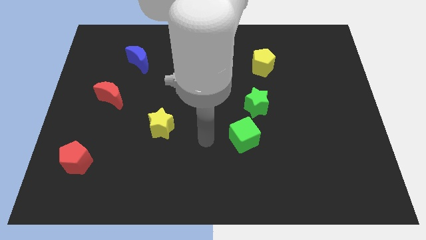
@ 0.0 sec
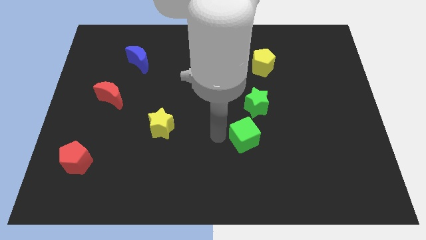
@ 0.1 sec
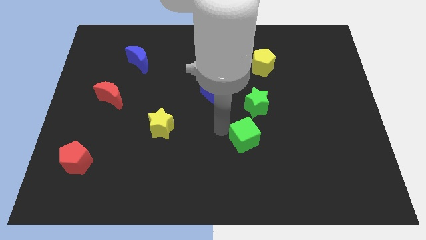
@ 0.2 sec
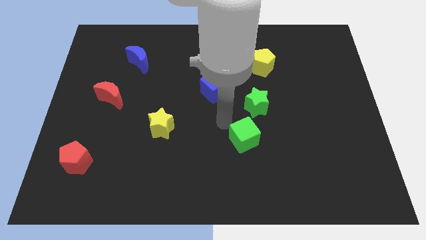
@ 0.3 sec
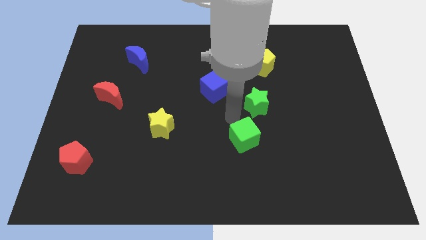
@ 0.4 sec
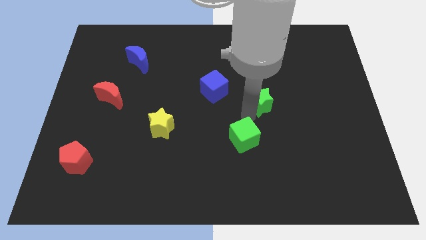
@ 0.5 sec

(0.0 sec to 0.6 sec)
pull the green cube apart from the green star

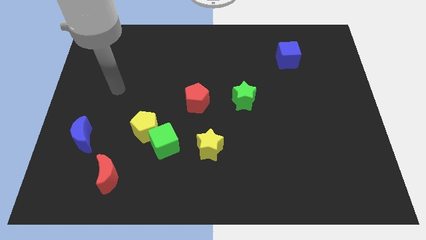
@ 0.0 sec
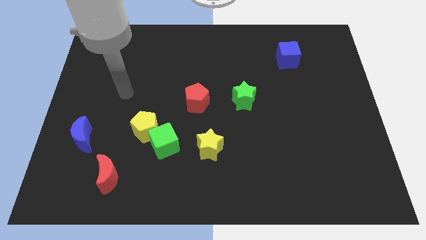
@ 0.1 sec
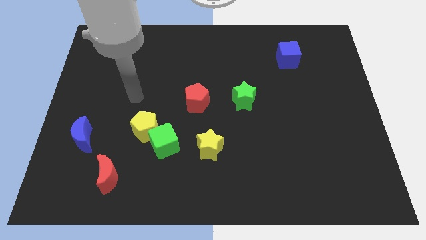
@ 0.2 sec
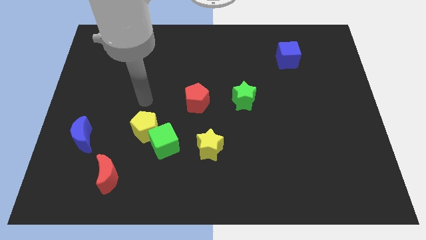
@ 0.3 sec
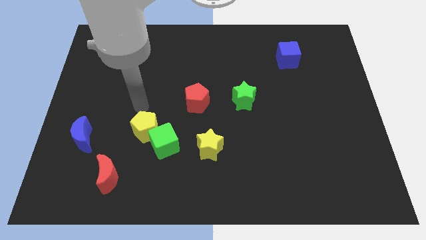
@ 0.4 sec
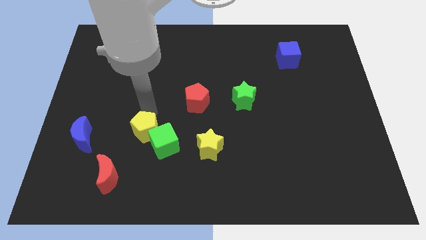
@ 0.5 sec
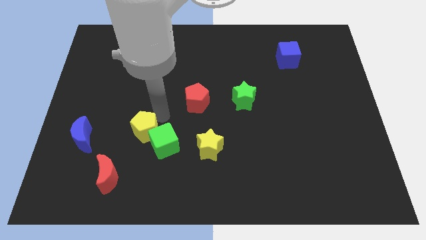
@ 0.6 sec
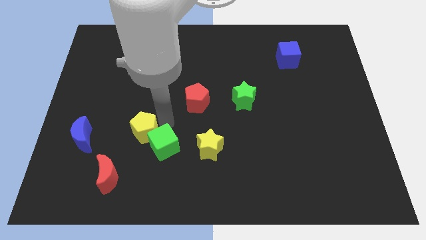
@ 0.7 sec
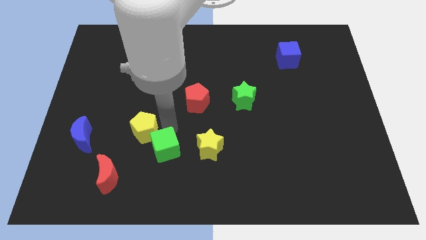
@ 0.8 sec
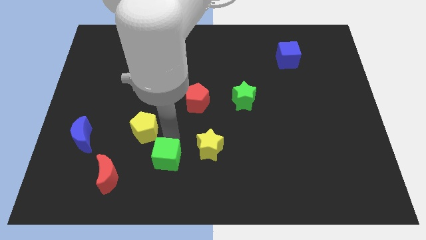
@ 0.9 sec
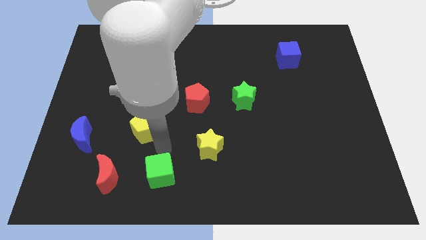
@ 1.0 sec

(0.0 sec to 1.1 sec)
separate the yellow pentagon from the green cube

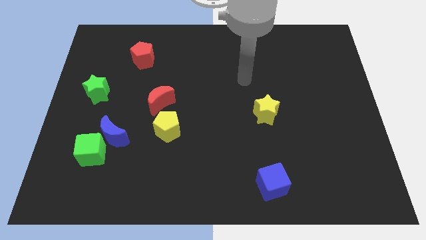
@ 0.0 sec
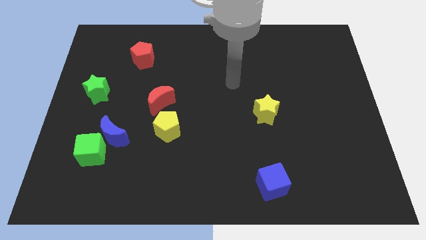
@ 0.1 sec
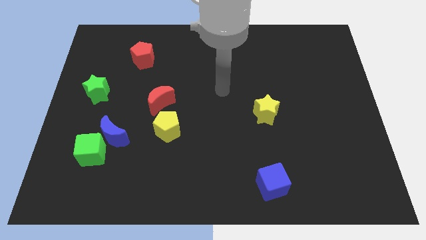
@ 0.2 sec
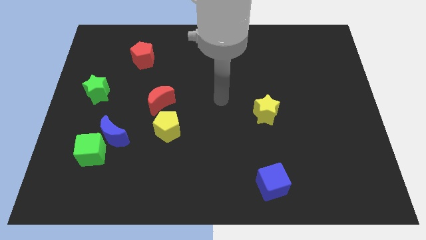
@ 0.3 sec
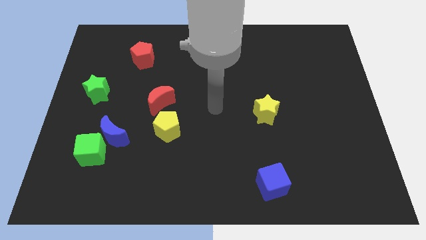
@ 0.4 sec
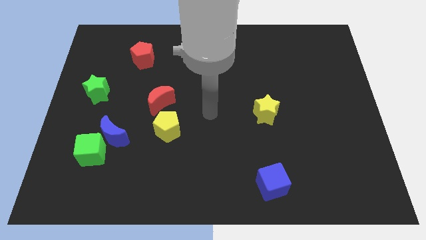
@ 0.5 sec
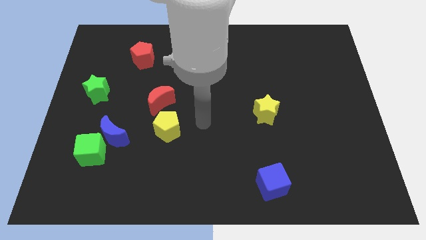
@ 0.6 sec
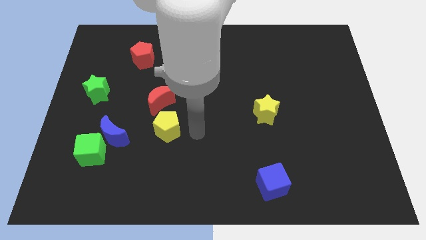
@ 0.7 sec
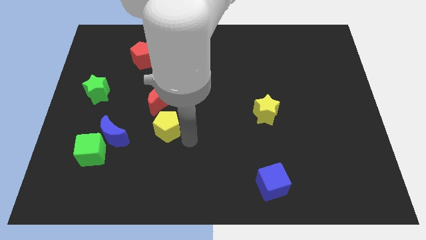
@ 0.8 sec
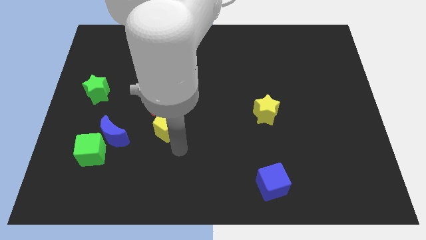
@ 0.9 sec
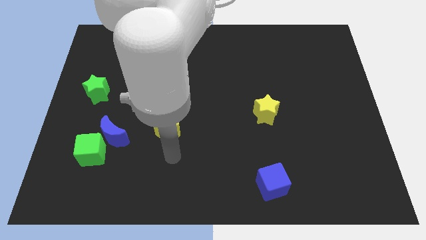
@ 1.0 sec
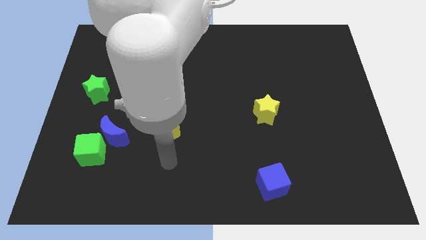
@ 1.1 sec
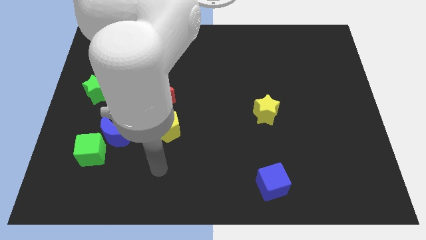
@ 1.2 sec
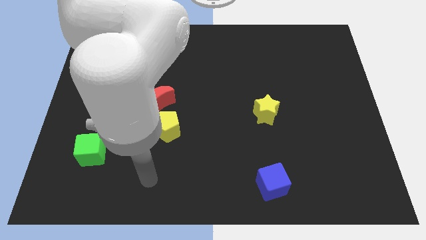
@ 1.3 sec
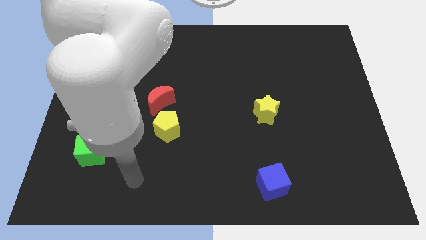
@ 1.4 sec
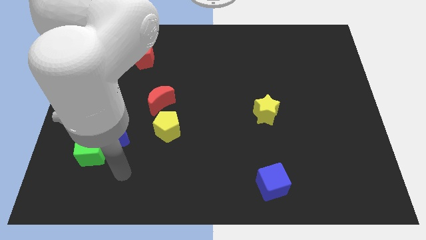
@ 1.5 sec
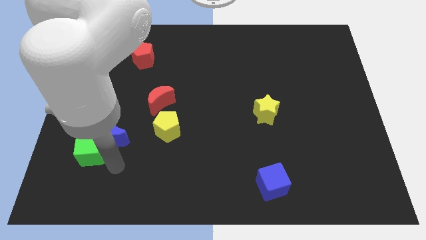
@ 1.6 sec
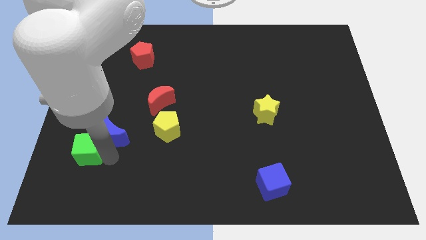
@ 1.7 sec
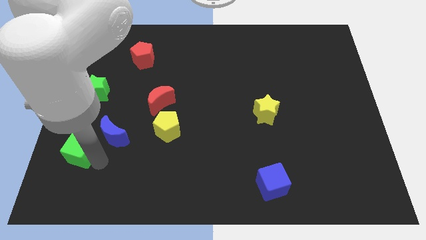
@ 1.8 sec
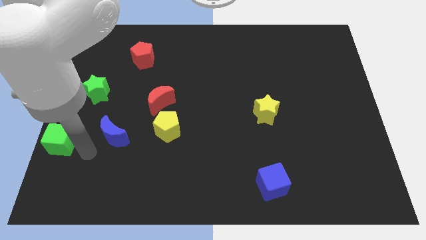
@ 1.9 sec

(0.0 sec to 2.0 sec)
separate the blue moon from the green cube

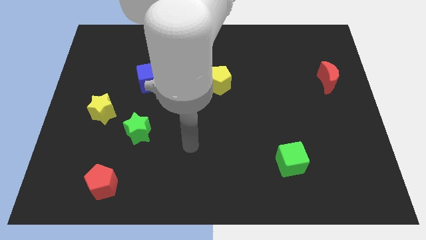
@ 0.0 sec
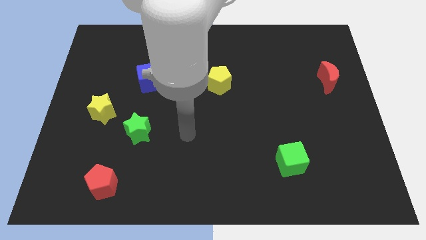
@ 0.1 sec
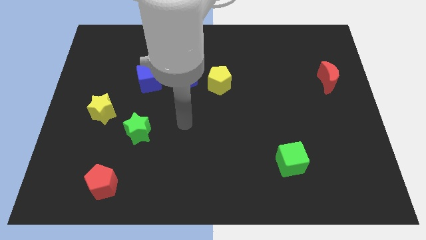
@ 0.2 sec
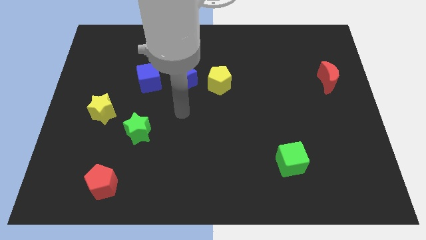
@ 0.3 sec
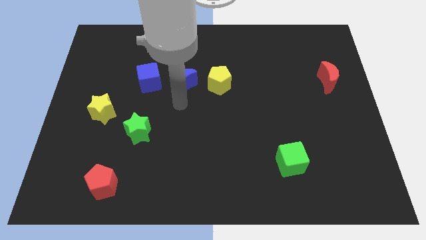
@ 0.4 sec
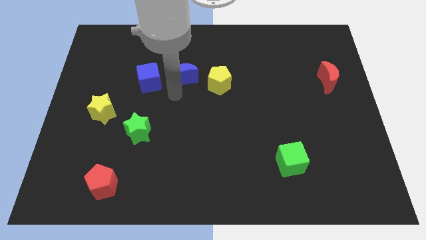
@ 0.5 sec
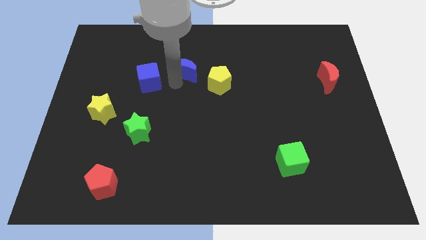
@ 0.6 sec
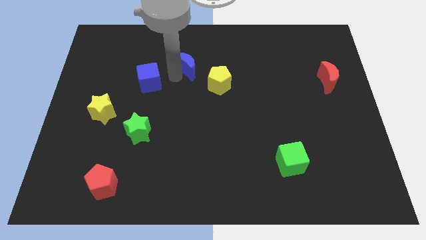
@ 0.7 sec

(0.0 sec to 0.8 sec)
pull the blue cube apart from the blue moon

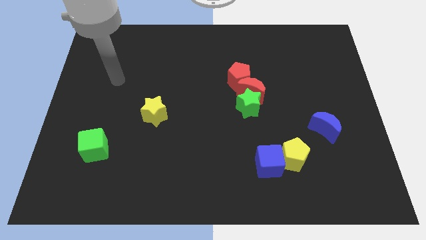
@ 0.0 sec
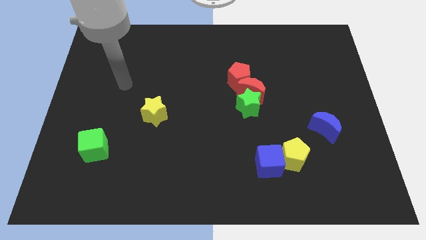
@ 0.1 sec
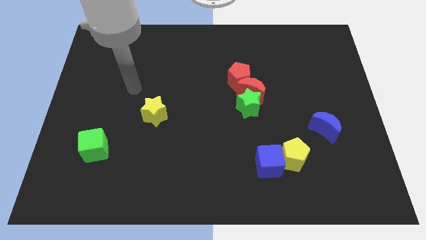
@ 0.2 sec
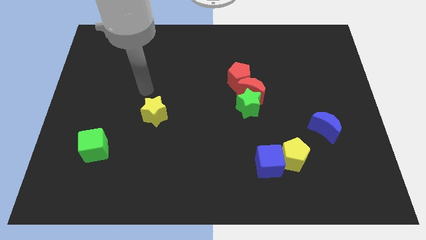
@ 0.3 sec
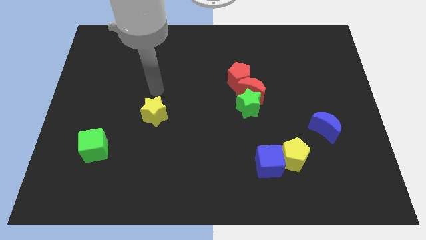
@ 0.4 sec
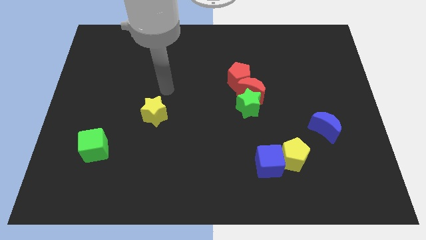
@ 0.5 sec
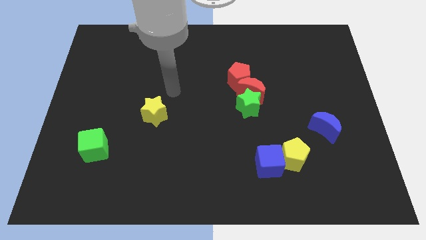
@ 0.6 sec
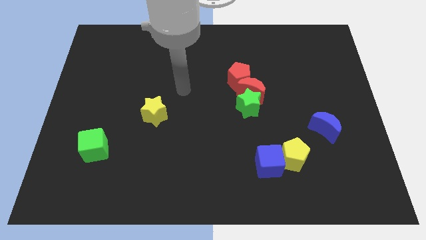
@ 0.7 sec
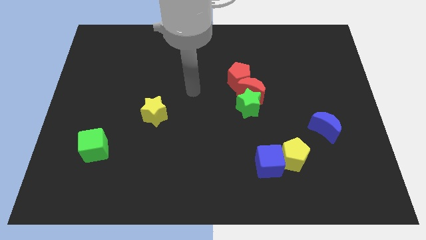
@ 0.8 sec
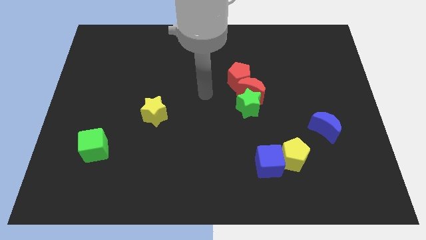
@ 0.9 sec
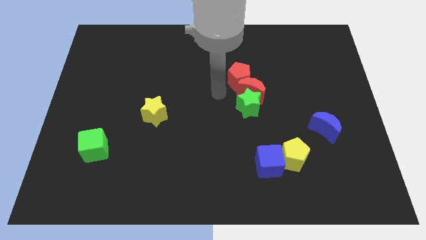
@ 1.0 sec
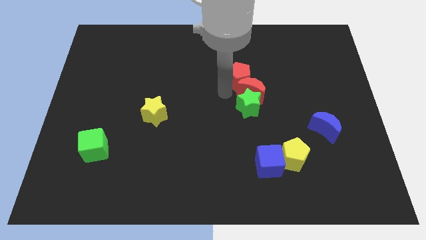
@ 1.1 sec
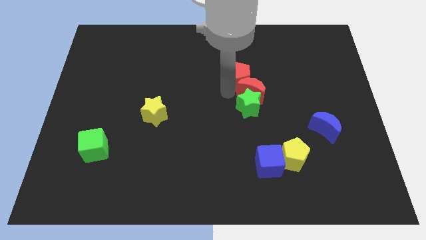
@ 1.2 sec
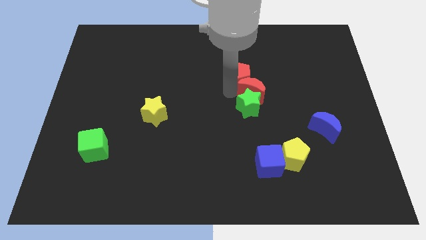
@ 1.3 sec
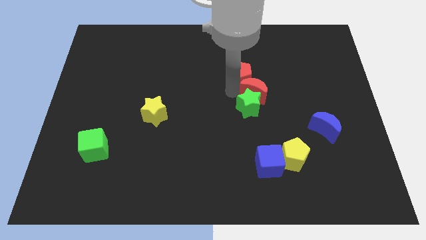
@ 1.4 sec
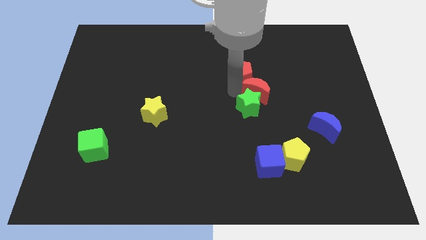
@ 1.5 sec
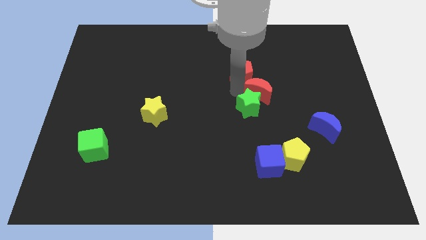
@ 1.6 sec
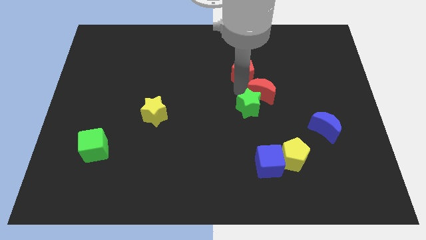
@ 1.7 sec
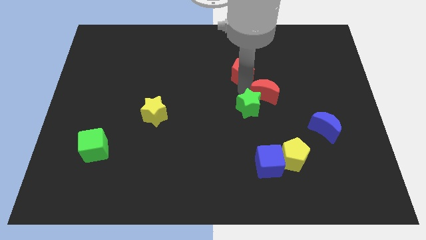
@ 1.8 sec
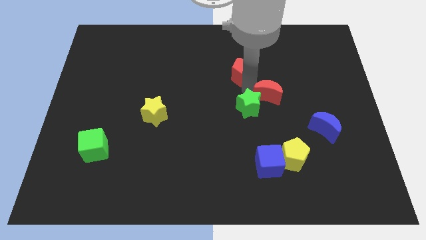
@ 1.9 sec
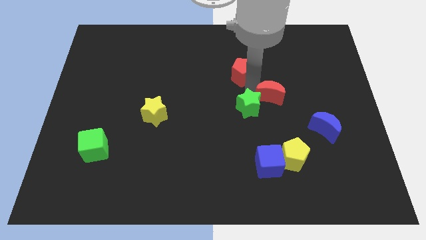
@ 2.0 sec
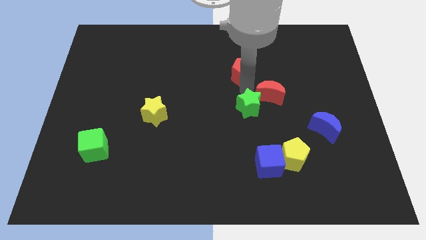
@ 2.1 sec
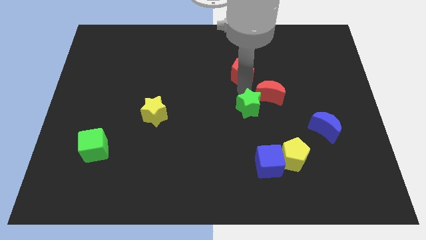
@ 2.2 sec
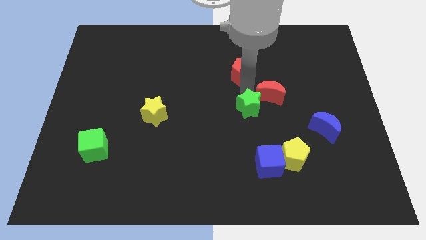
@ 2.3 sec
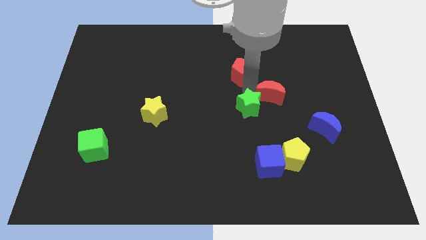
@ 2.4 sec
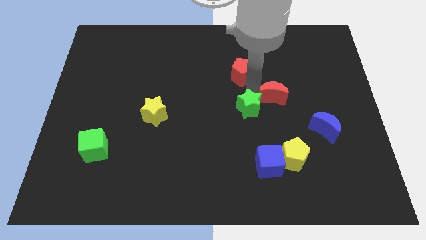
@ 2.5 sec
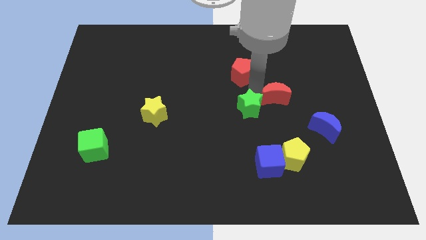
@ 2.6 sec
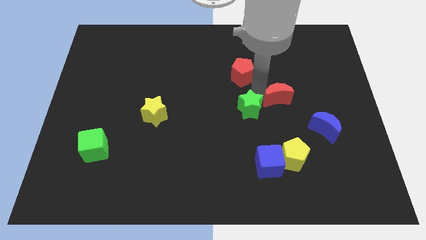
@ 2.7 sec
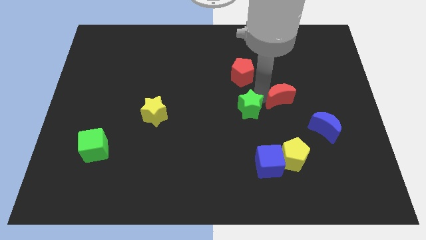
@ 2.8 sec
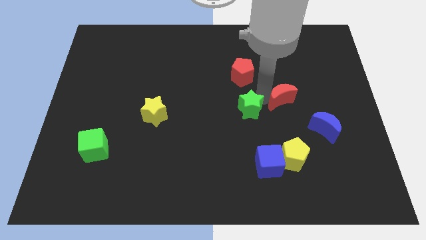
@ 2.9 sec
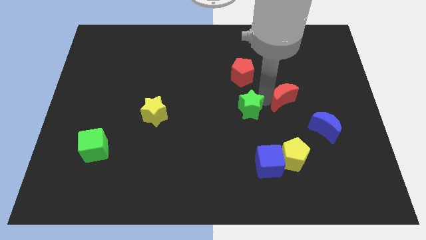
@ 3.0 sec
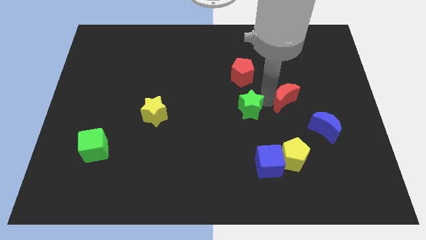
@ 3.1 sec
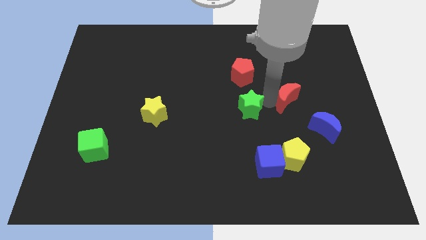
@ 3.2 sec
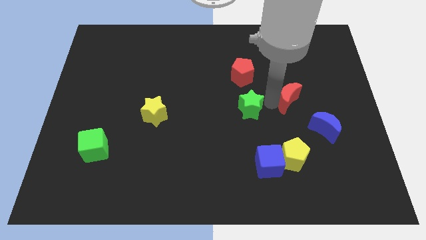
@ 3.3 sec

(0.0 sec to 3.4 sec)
move the red moon away from the green star and red pentagon

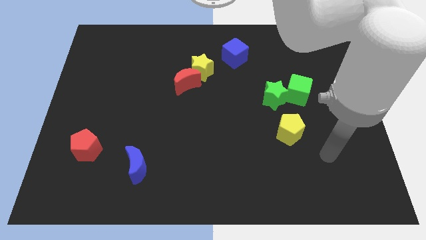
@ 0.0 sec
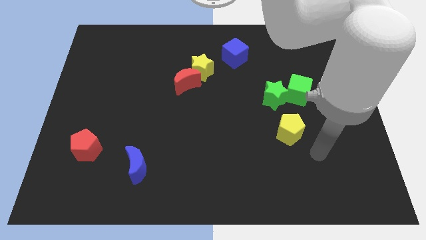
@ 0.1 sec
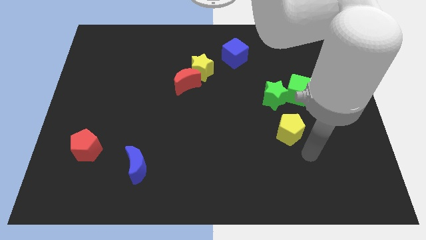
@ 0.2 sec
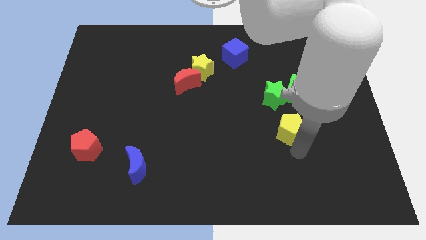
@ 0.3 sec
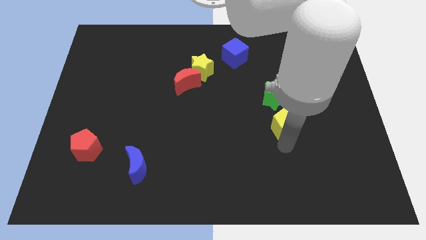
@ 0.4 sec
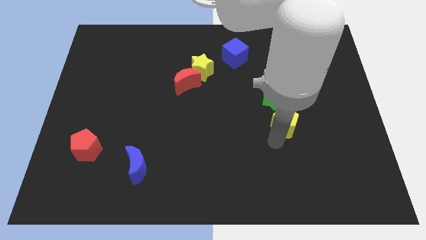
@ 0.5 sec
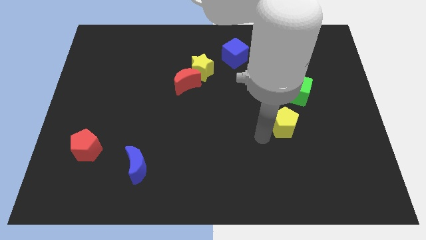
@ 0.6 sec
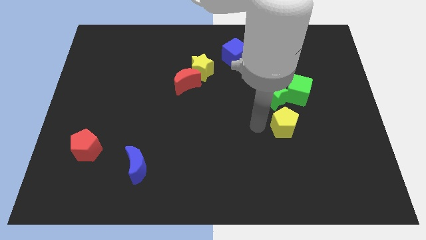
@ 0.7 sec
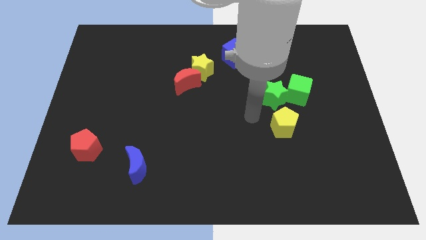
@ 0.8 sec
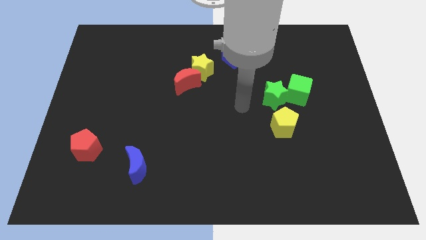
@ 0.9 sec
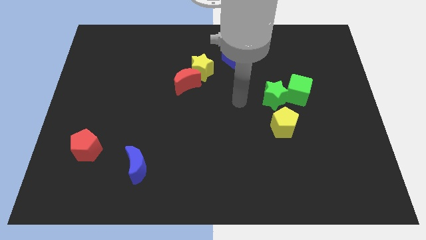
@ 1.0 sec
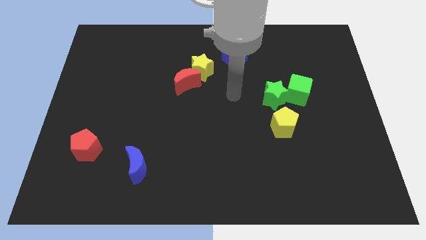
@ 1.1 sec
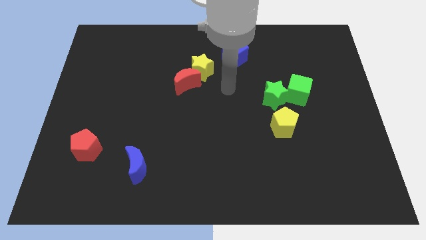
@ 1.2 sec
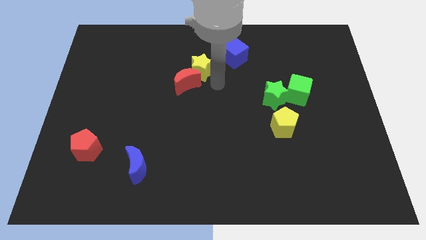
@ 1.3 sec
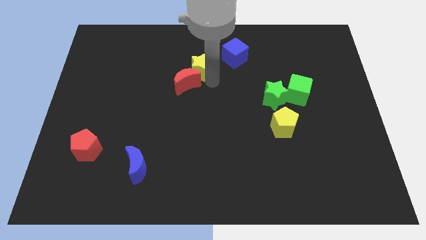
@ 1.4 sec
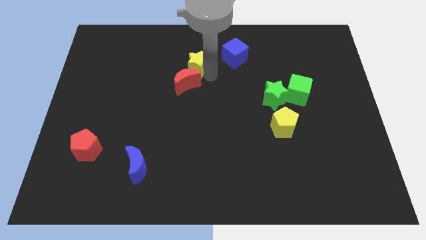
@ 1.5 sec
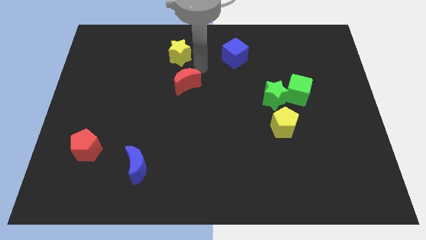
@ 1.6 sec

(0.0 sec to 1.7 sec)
separate the red moon from the yellow star
